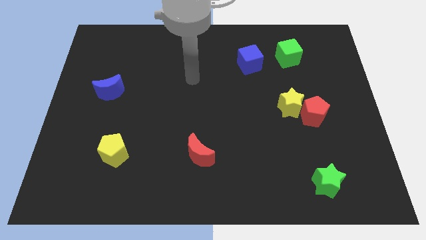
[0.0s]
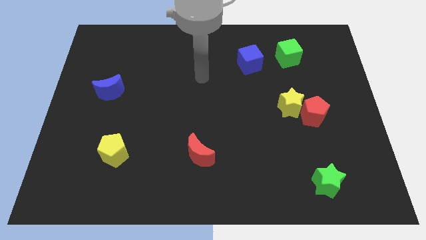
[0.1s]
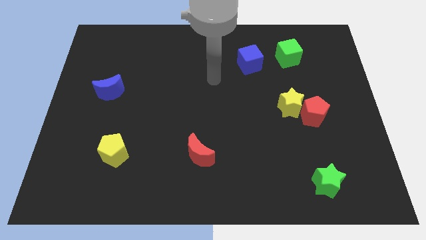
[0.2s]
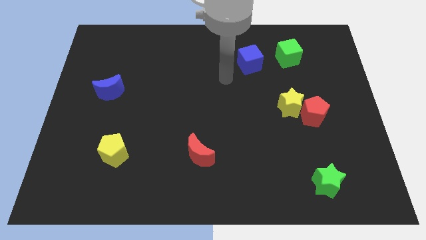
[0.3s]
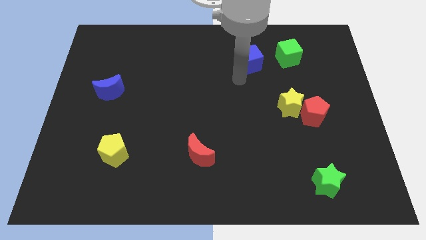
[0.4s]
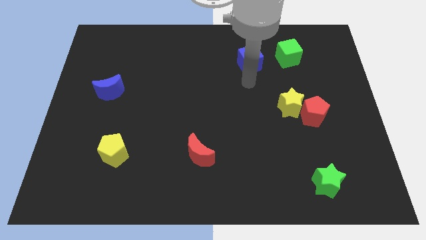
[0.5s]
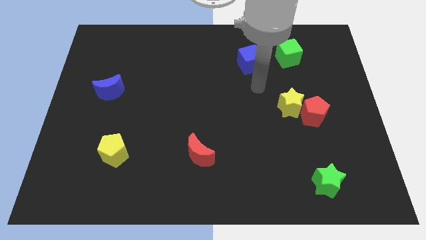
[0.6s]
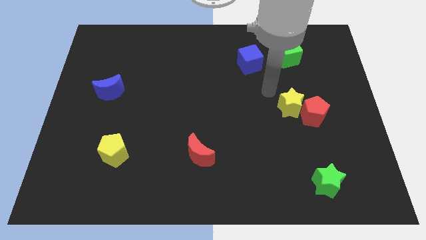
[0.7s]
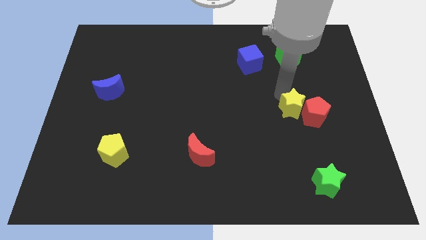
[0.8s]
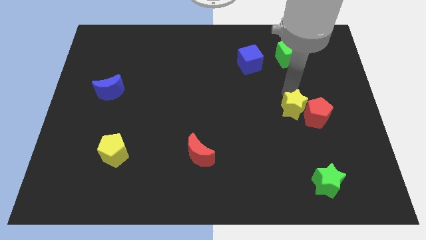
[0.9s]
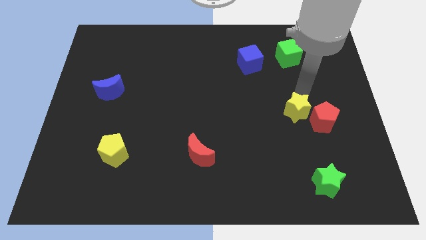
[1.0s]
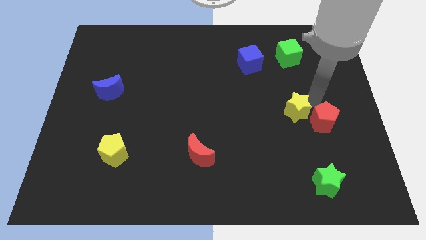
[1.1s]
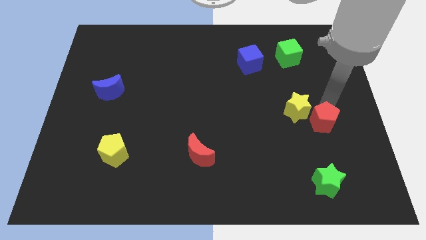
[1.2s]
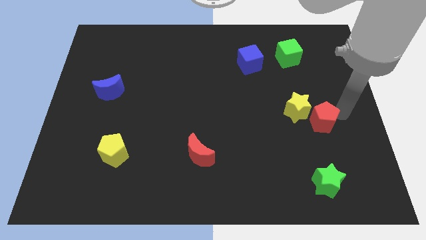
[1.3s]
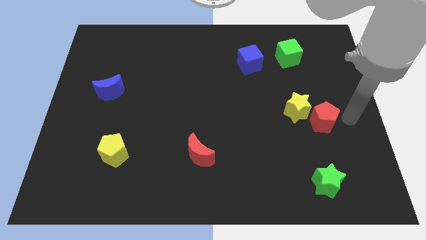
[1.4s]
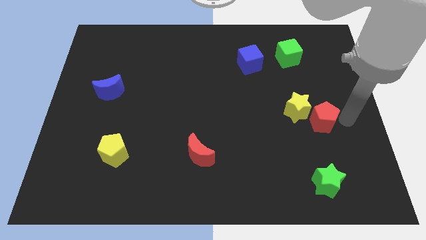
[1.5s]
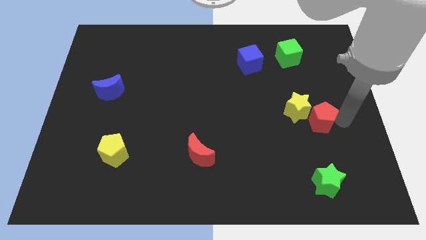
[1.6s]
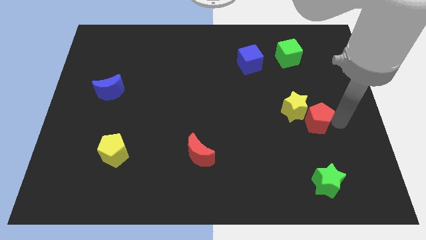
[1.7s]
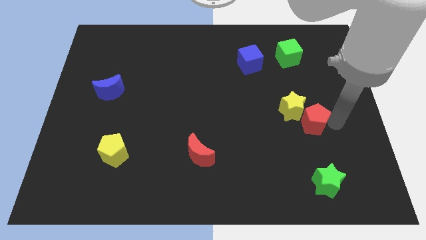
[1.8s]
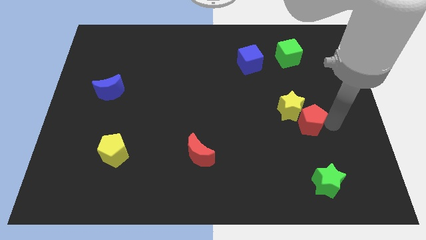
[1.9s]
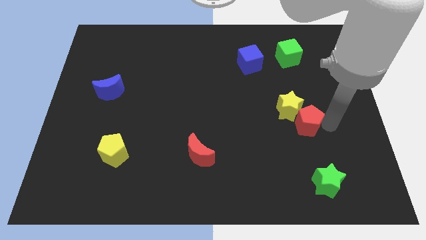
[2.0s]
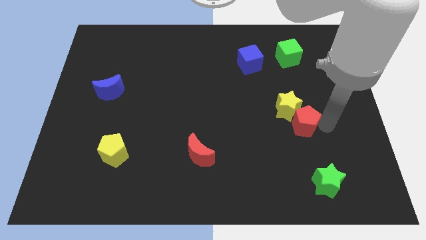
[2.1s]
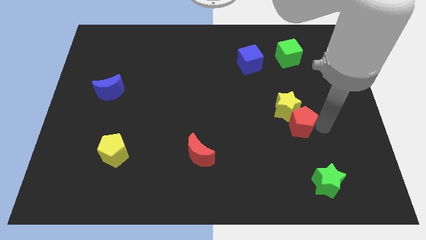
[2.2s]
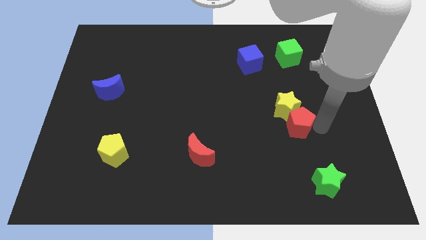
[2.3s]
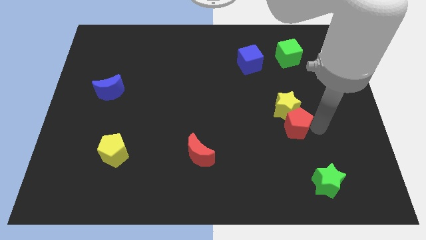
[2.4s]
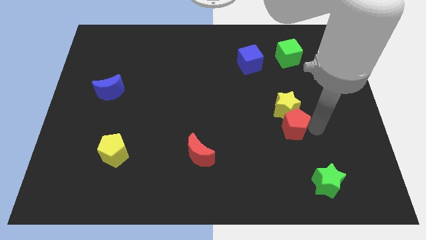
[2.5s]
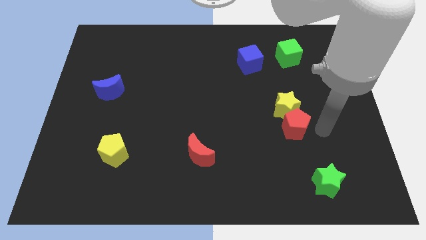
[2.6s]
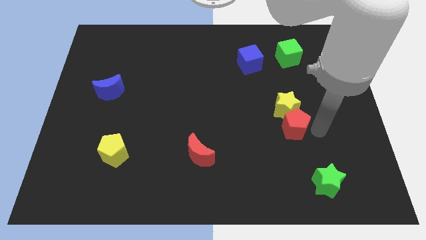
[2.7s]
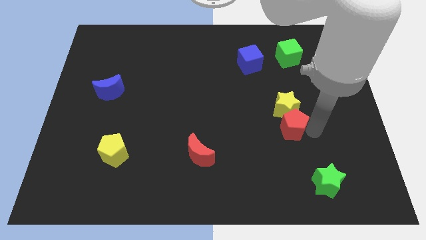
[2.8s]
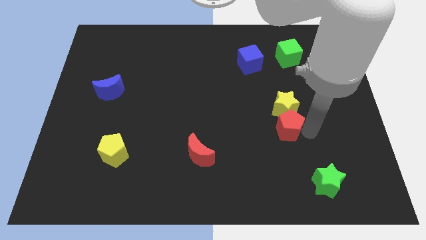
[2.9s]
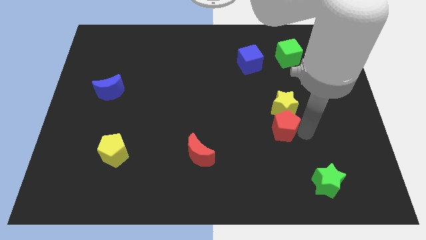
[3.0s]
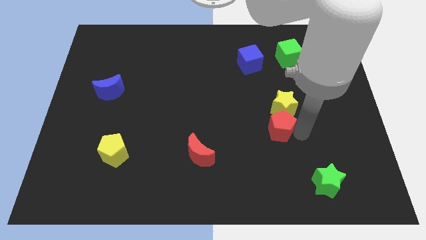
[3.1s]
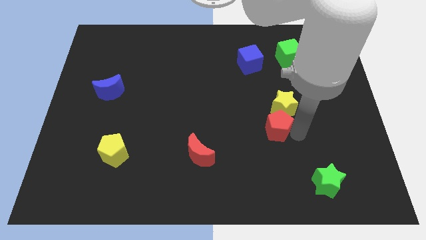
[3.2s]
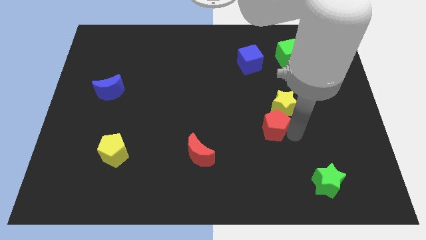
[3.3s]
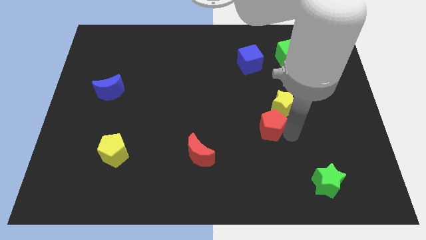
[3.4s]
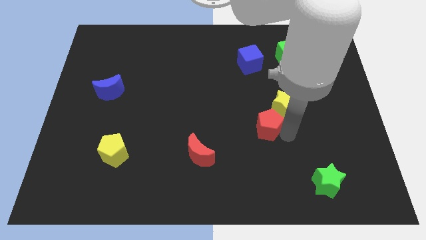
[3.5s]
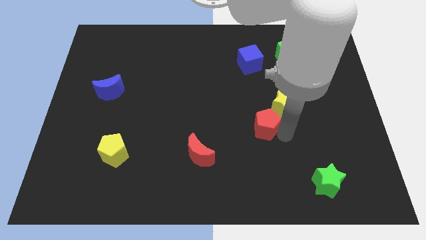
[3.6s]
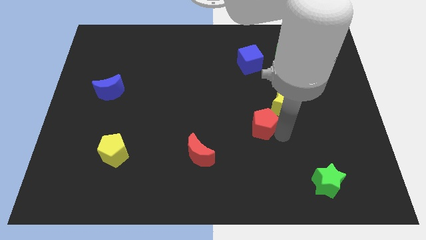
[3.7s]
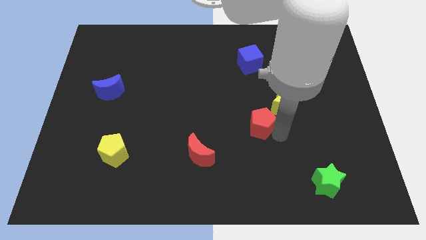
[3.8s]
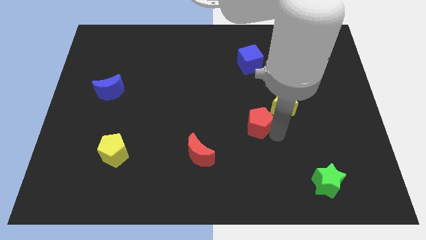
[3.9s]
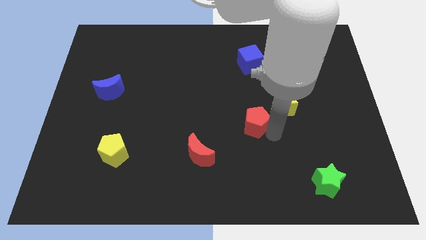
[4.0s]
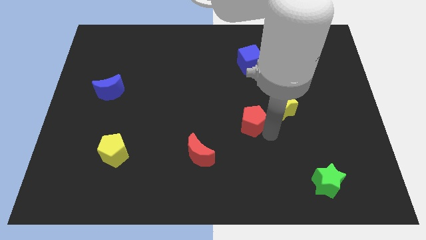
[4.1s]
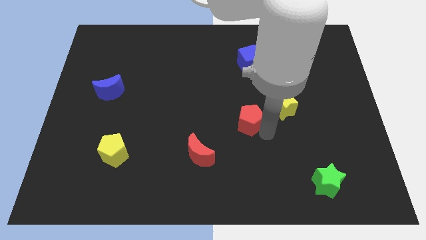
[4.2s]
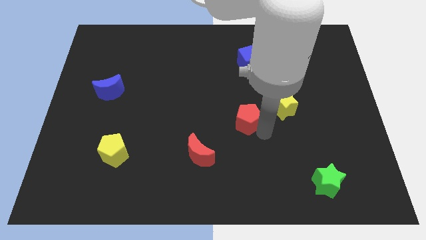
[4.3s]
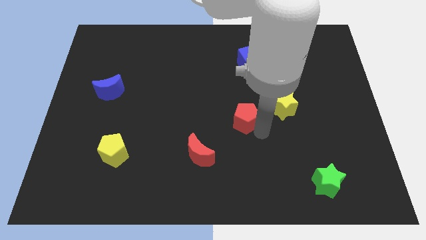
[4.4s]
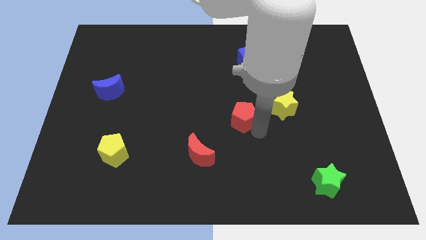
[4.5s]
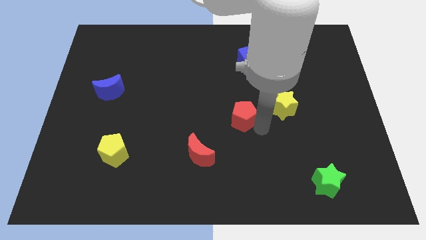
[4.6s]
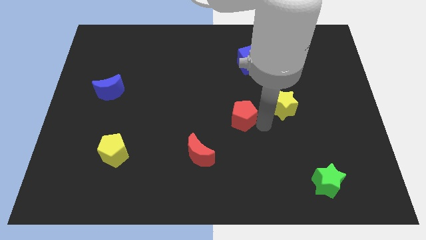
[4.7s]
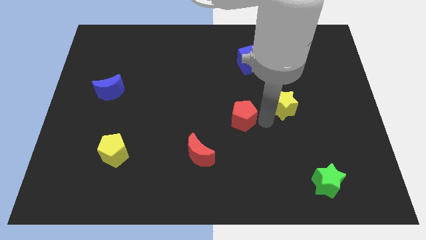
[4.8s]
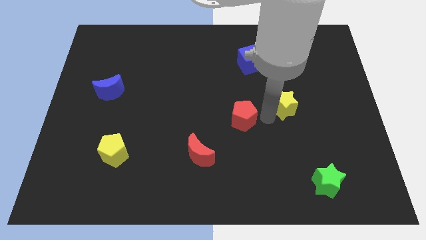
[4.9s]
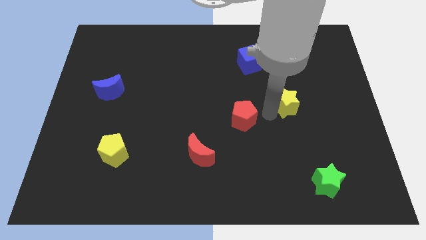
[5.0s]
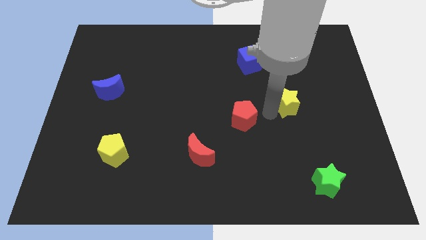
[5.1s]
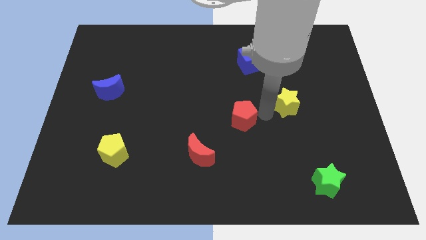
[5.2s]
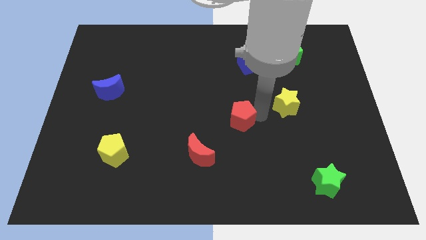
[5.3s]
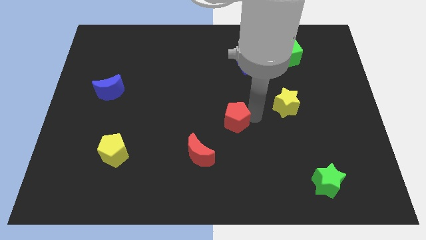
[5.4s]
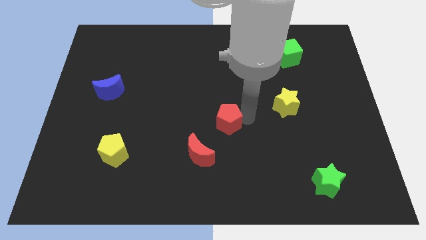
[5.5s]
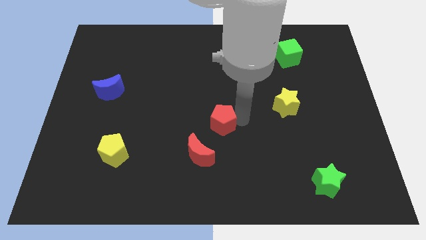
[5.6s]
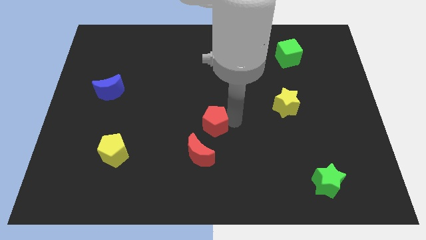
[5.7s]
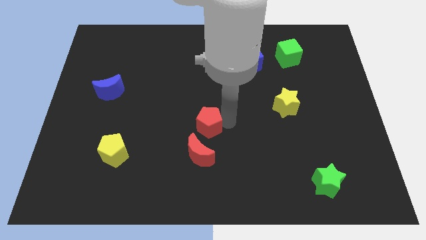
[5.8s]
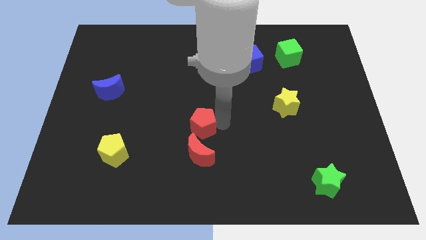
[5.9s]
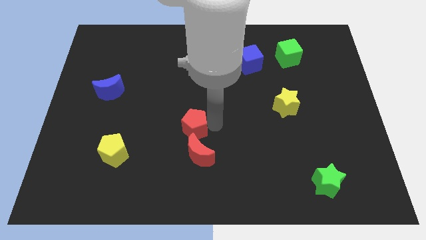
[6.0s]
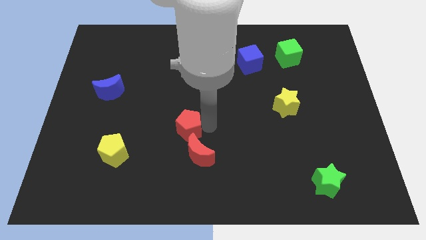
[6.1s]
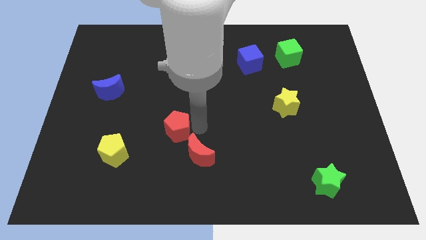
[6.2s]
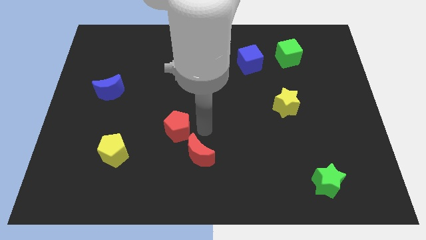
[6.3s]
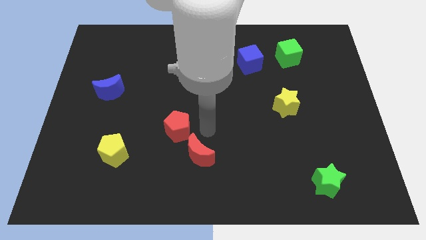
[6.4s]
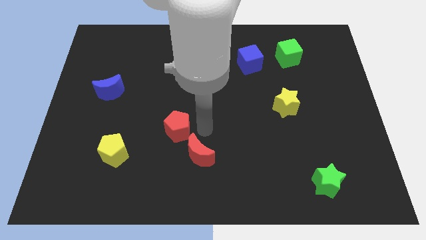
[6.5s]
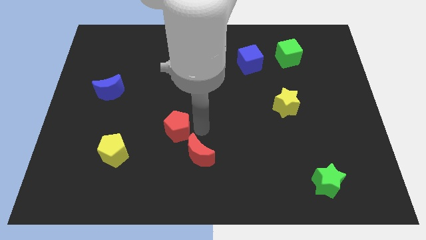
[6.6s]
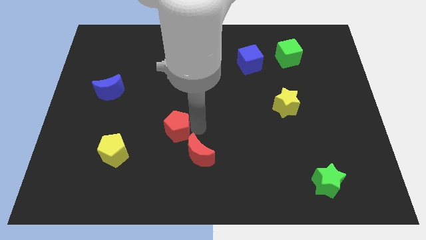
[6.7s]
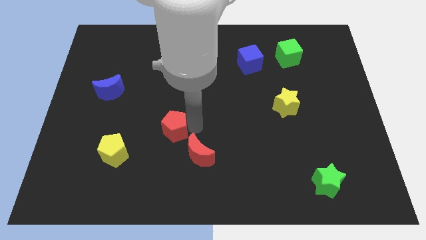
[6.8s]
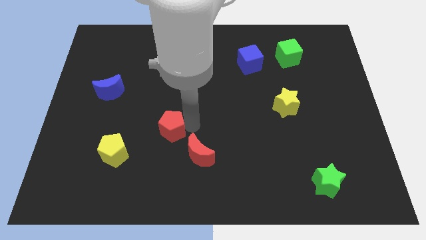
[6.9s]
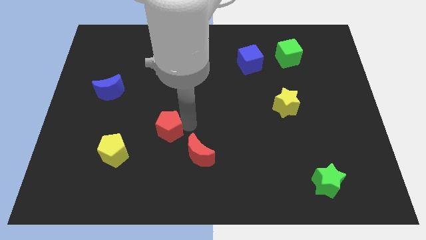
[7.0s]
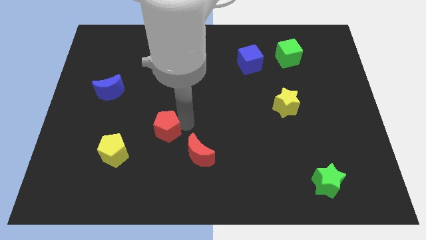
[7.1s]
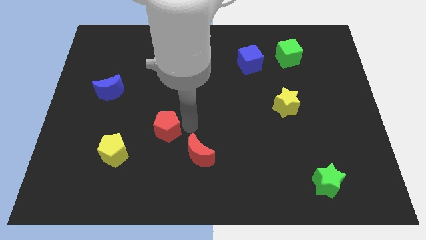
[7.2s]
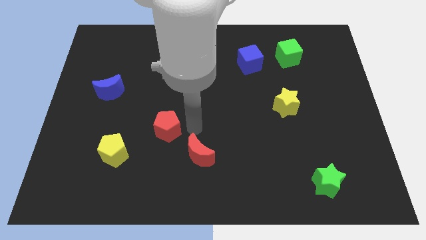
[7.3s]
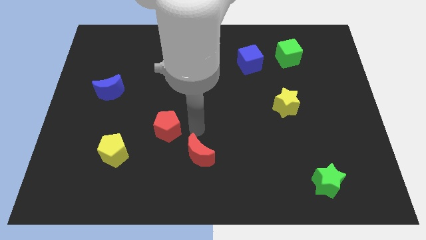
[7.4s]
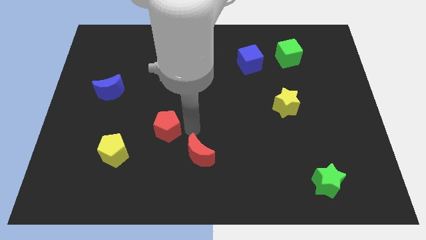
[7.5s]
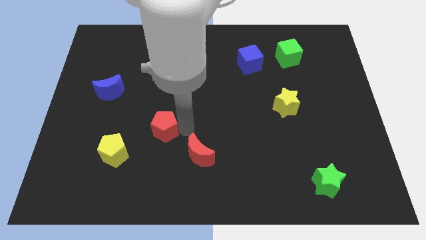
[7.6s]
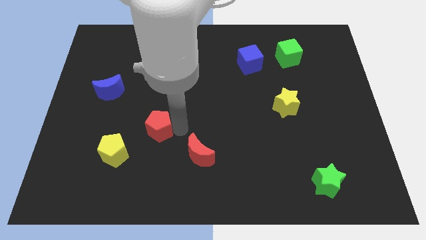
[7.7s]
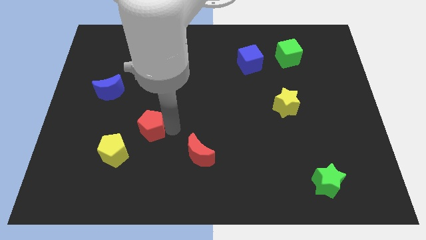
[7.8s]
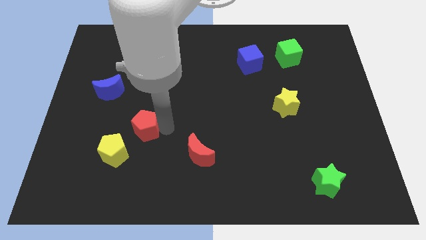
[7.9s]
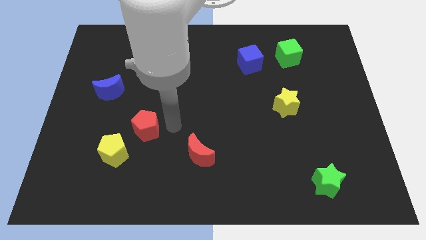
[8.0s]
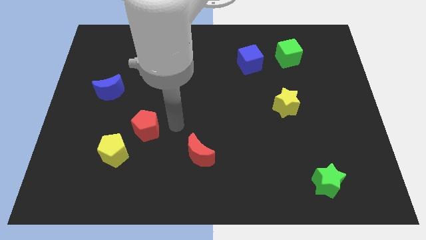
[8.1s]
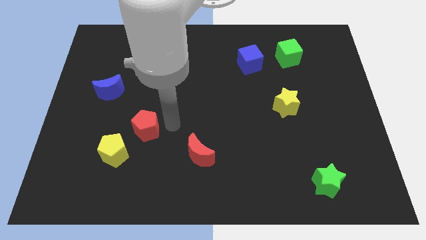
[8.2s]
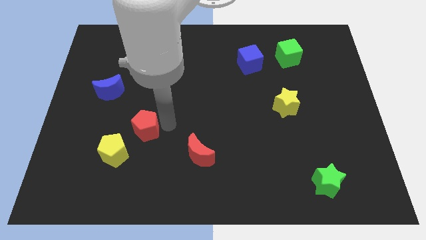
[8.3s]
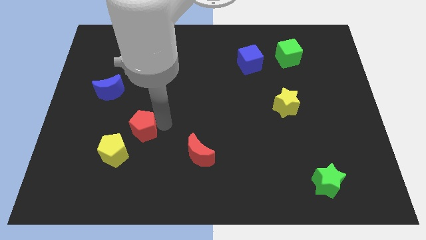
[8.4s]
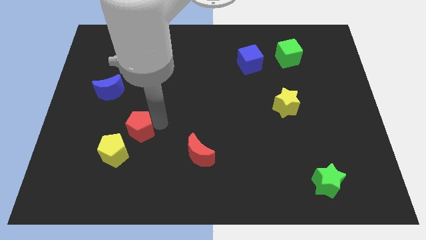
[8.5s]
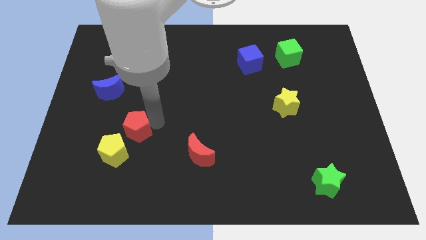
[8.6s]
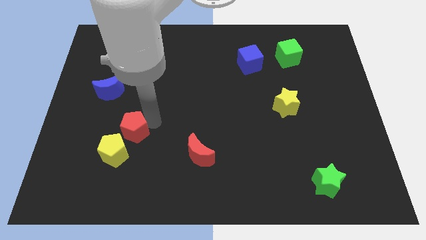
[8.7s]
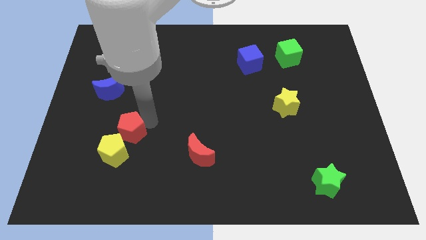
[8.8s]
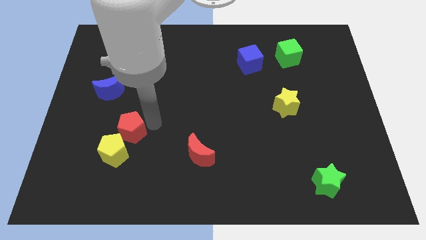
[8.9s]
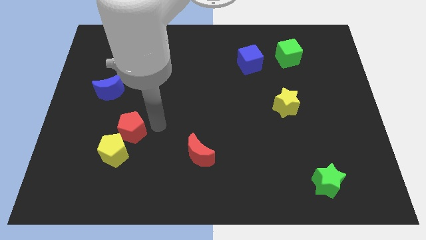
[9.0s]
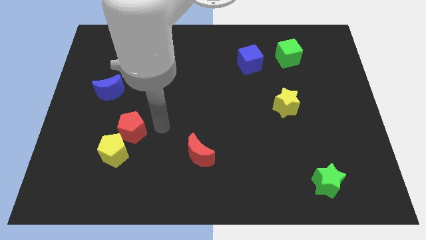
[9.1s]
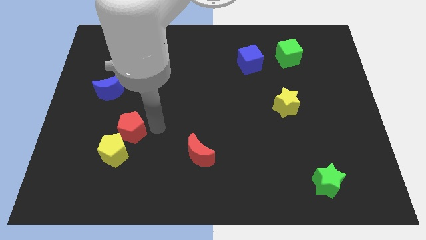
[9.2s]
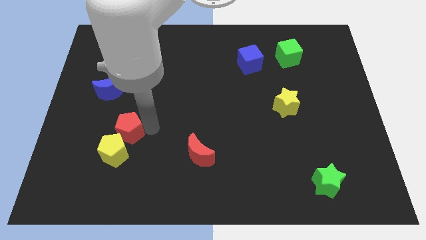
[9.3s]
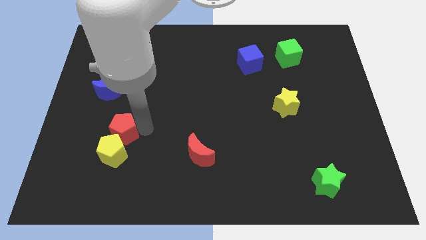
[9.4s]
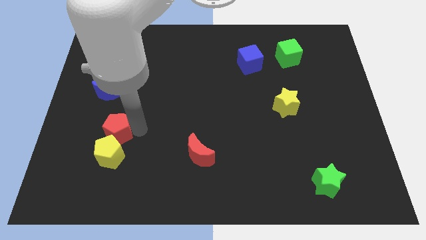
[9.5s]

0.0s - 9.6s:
push the red pentagon diagonally up and to the left of the yellow pentagon
